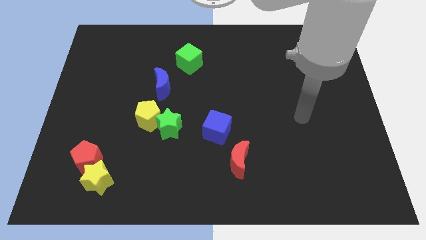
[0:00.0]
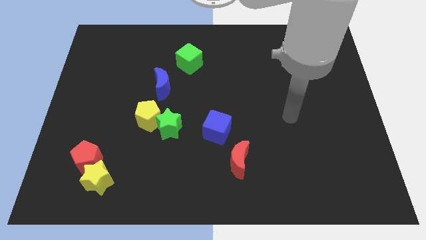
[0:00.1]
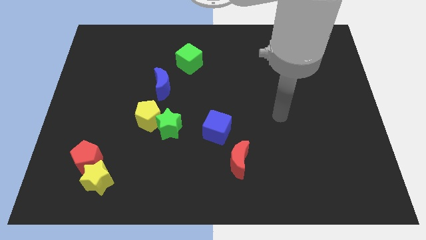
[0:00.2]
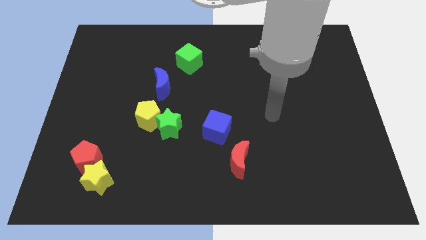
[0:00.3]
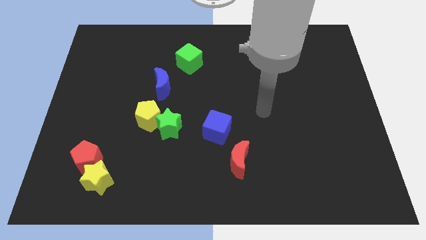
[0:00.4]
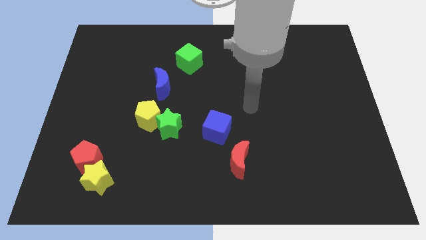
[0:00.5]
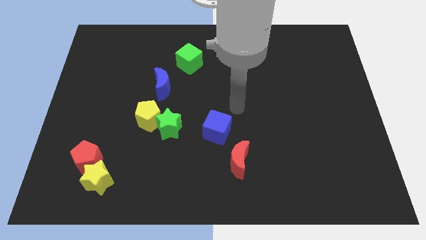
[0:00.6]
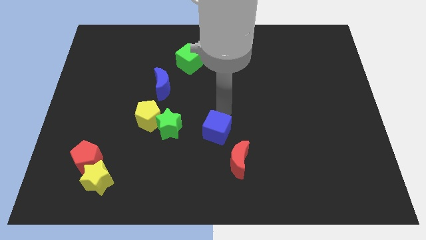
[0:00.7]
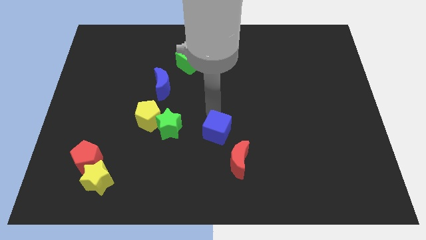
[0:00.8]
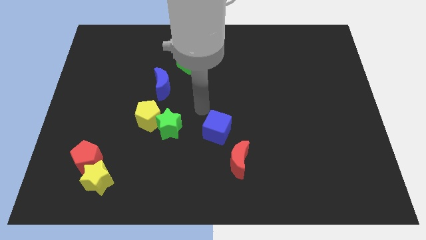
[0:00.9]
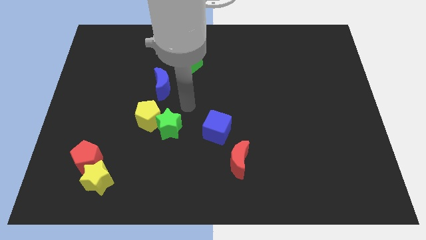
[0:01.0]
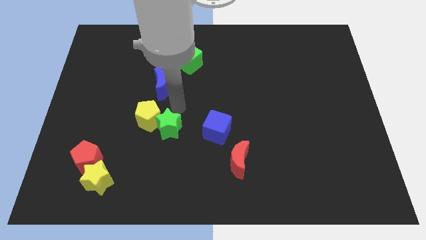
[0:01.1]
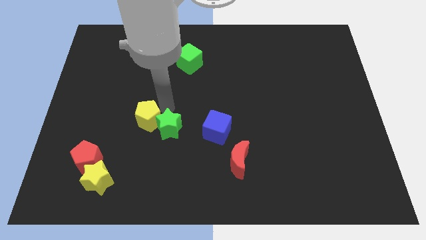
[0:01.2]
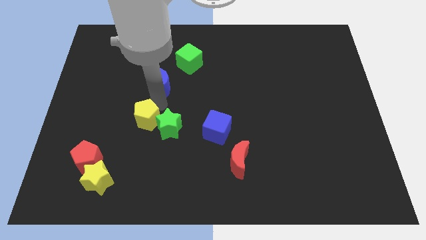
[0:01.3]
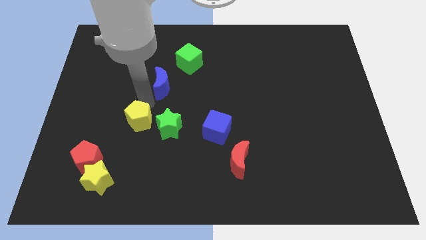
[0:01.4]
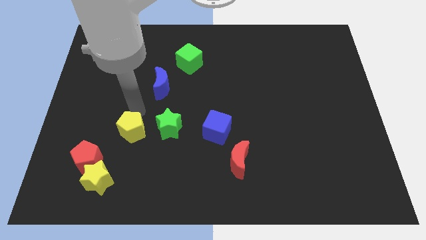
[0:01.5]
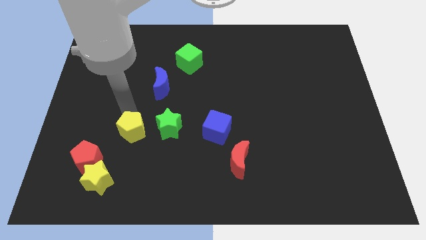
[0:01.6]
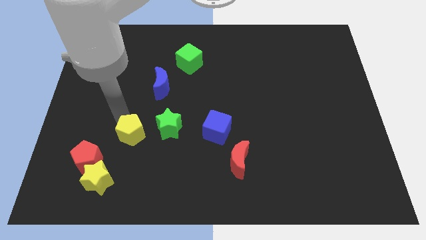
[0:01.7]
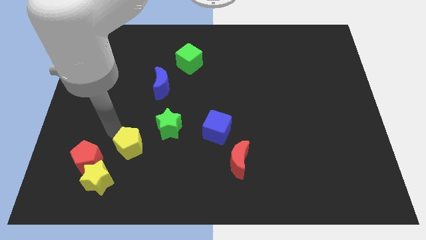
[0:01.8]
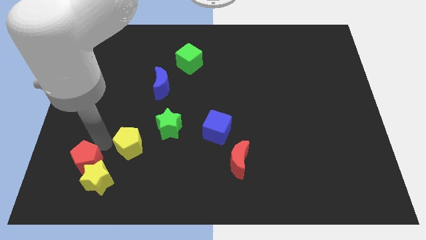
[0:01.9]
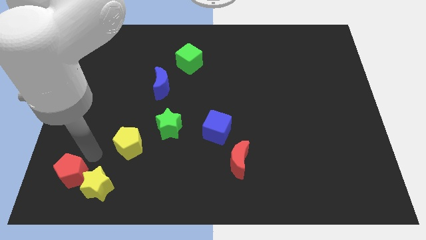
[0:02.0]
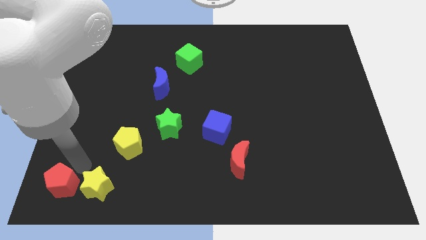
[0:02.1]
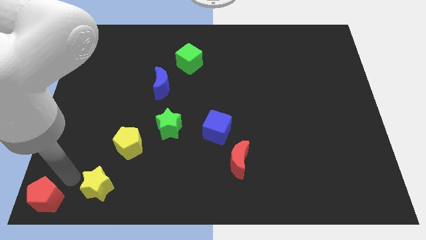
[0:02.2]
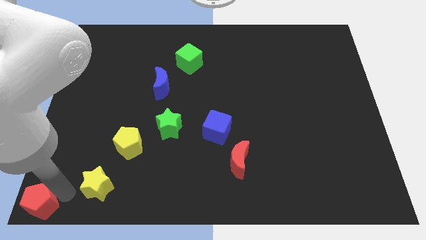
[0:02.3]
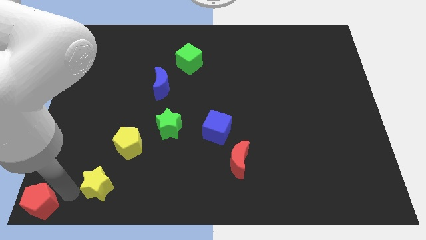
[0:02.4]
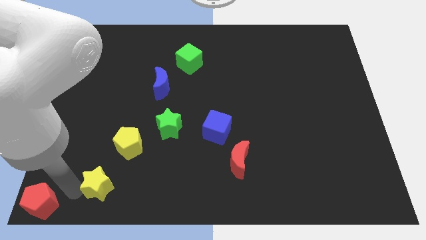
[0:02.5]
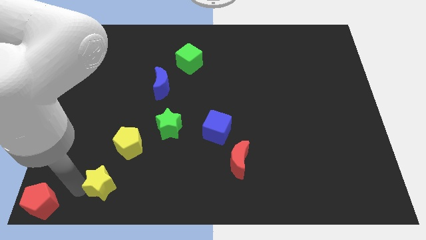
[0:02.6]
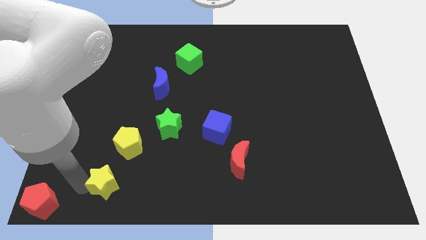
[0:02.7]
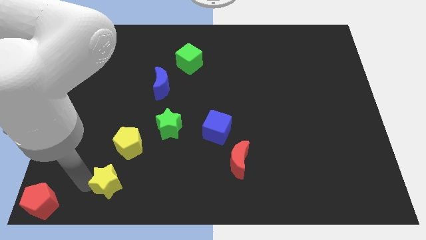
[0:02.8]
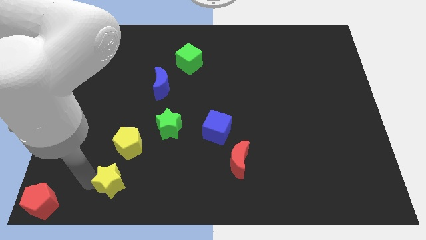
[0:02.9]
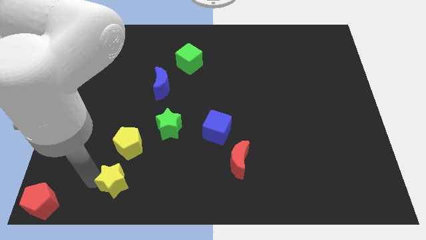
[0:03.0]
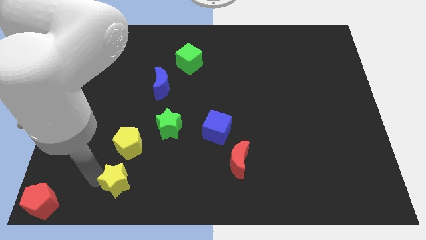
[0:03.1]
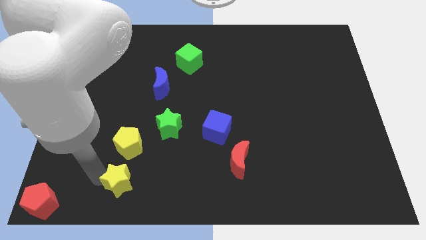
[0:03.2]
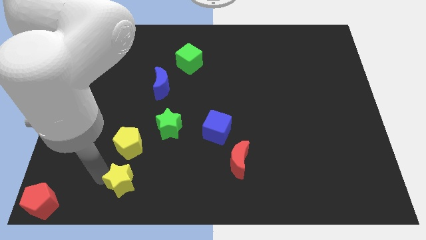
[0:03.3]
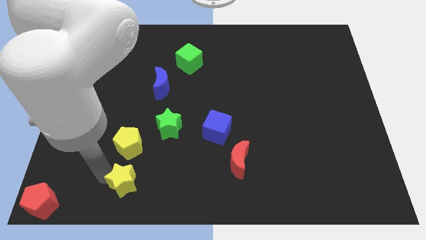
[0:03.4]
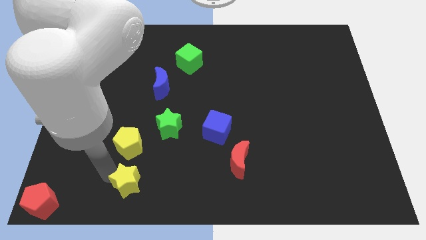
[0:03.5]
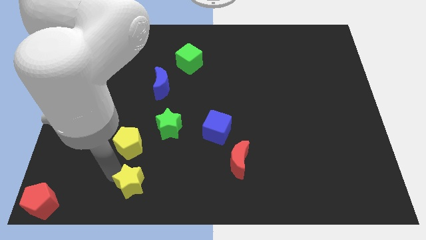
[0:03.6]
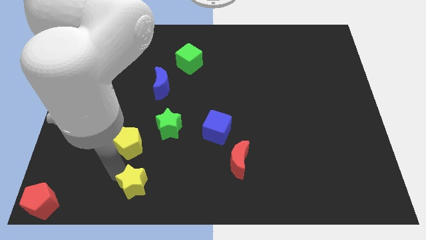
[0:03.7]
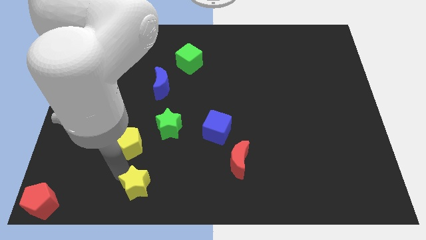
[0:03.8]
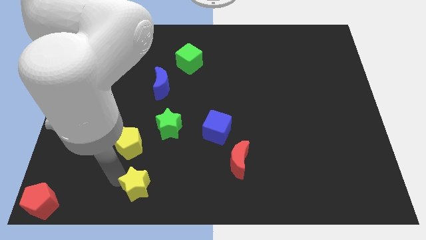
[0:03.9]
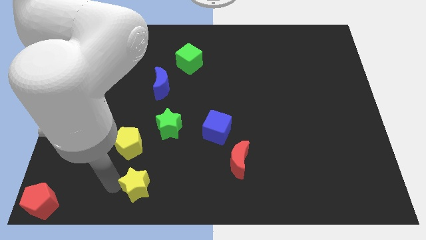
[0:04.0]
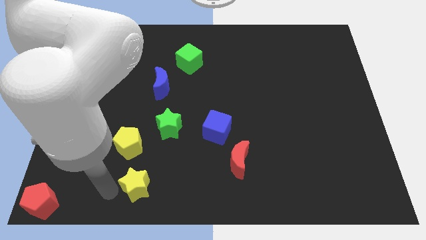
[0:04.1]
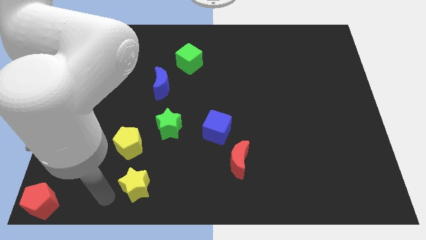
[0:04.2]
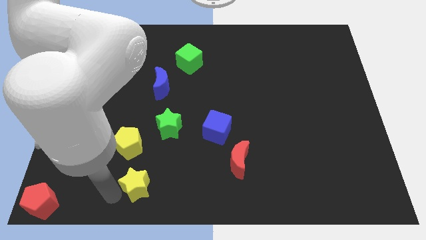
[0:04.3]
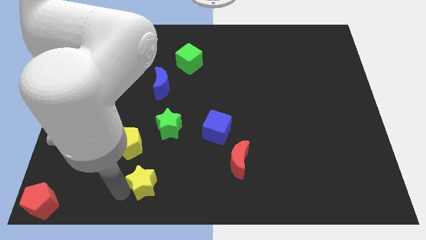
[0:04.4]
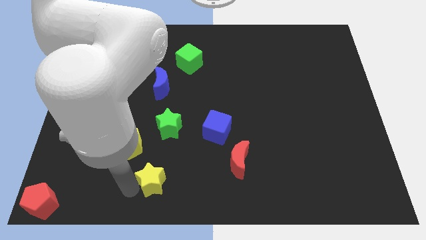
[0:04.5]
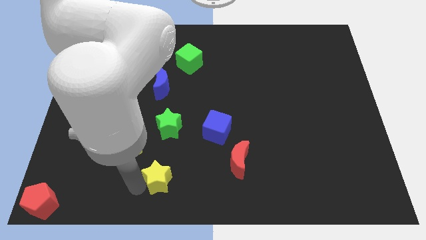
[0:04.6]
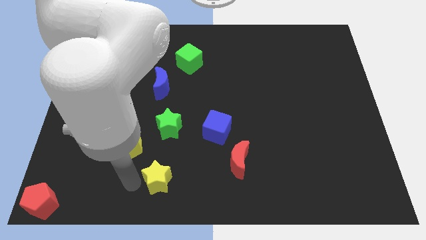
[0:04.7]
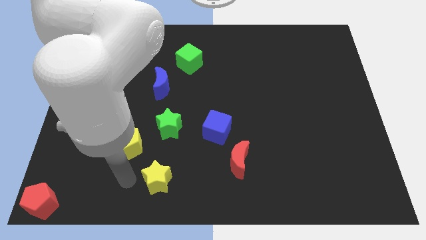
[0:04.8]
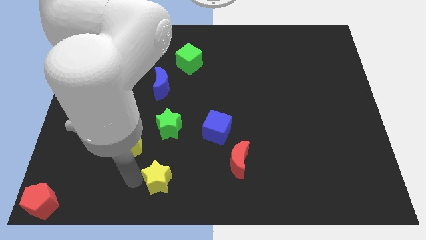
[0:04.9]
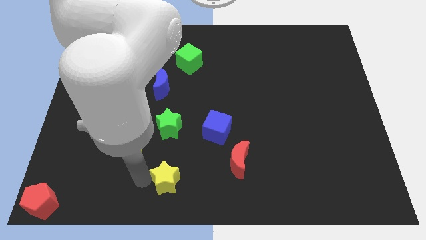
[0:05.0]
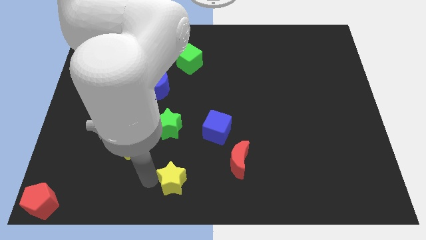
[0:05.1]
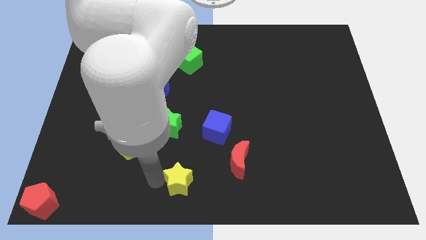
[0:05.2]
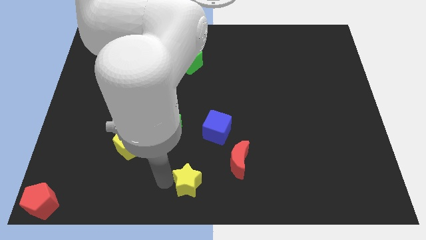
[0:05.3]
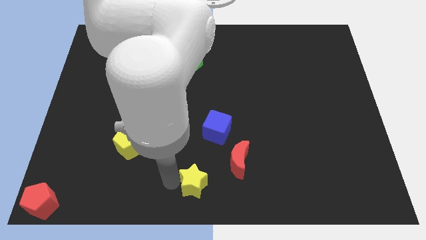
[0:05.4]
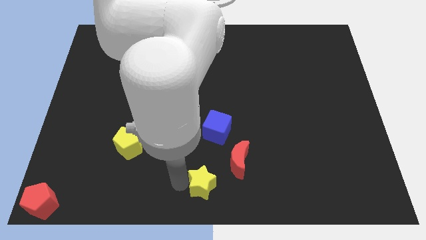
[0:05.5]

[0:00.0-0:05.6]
push the yellow star right

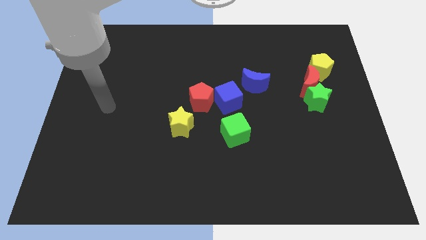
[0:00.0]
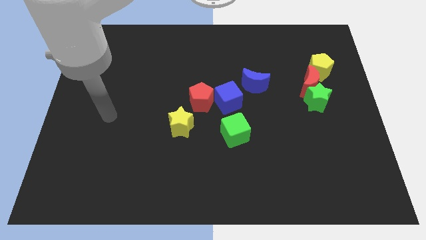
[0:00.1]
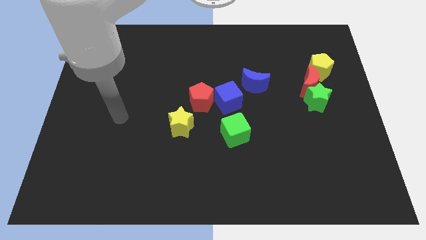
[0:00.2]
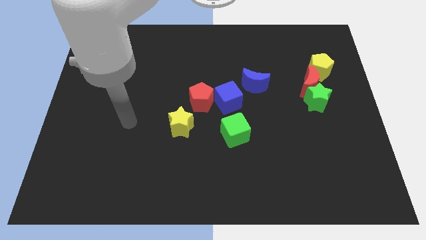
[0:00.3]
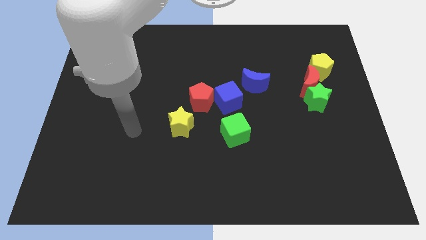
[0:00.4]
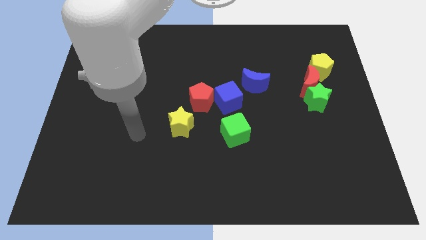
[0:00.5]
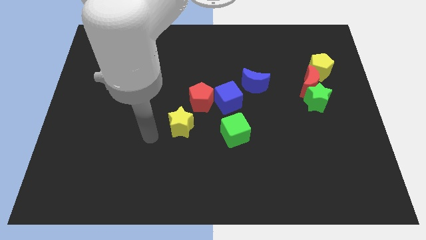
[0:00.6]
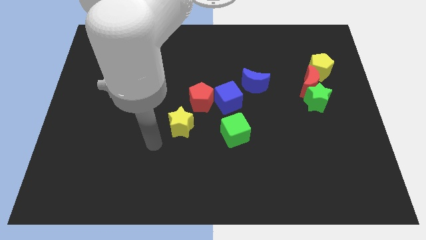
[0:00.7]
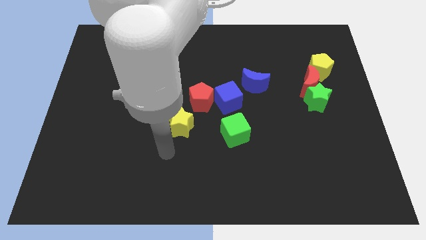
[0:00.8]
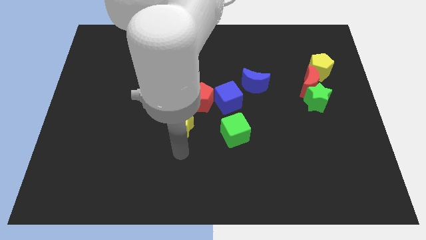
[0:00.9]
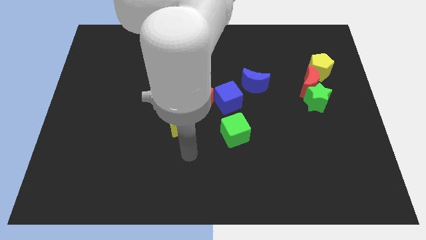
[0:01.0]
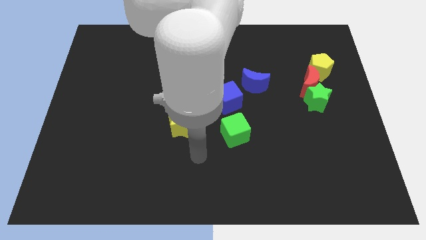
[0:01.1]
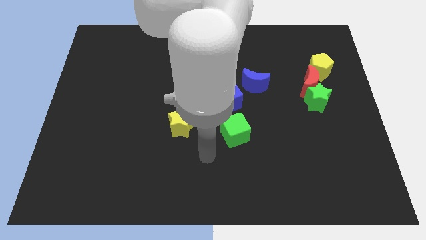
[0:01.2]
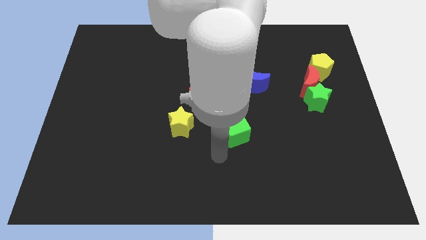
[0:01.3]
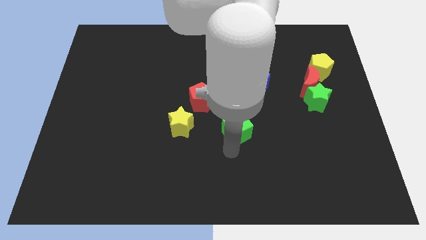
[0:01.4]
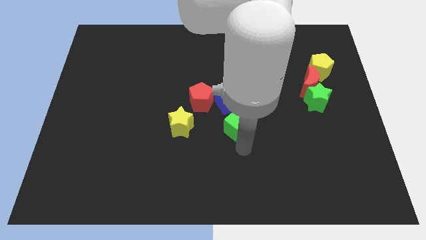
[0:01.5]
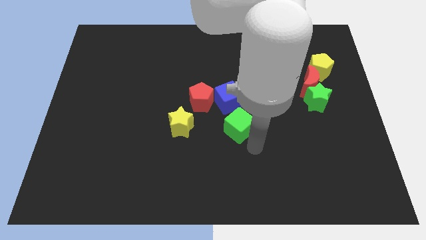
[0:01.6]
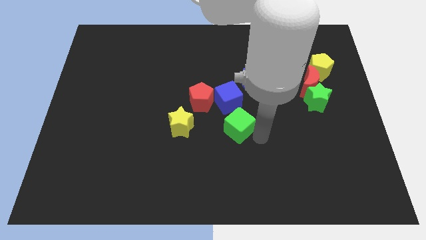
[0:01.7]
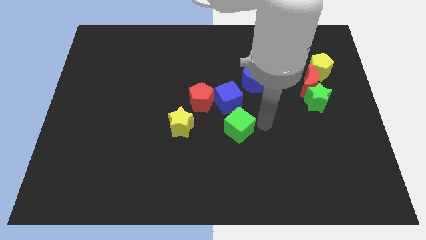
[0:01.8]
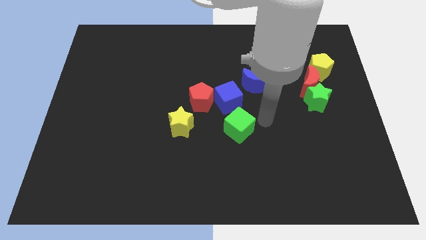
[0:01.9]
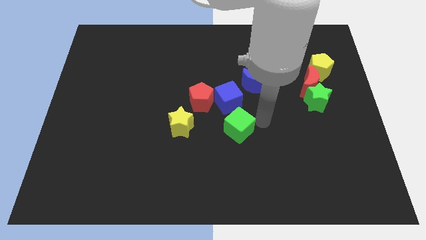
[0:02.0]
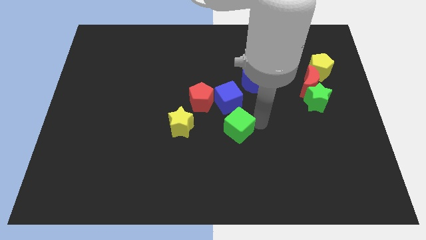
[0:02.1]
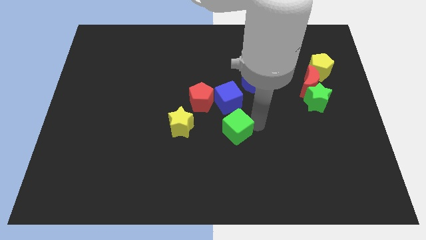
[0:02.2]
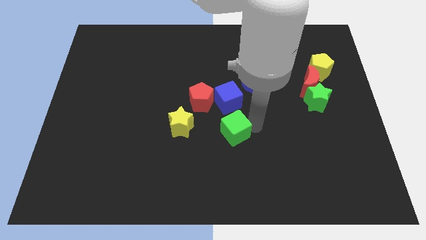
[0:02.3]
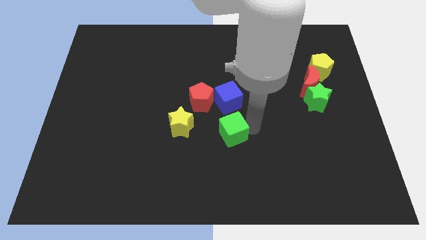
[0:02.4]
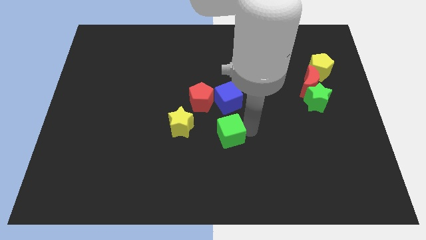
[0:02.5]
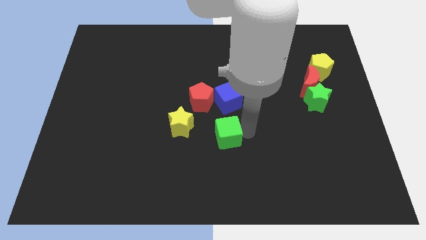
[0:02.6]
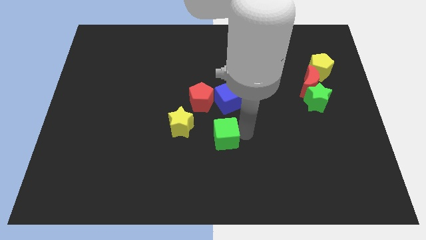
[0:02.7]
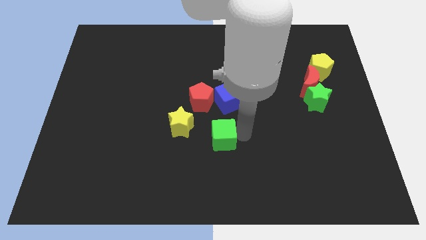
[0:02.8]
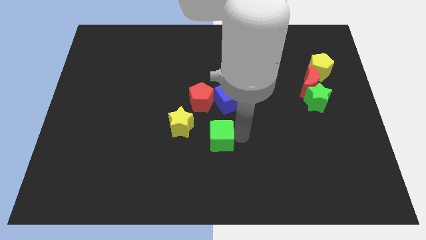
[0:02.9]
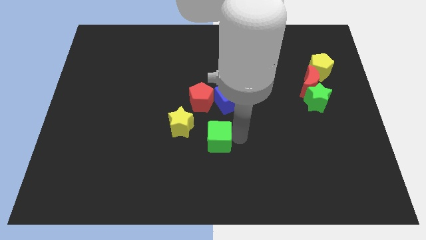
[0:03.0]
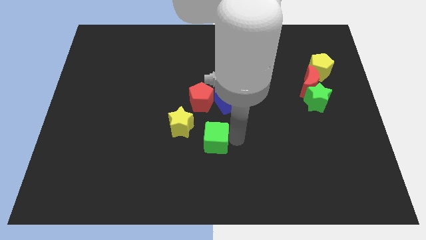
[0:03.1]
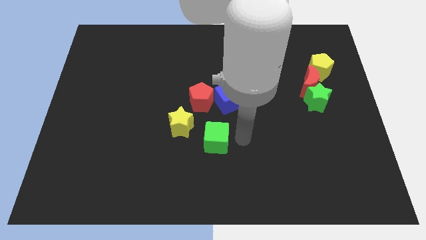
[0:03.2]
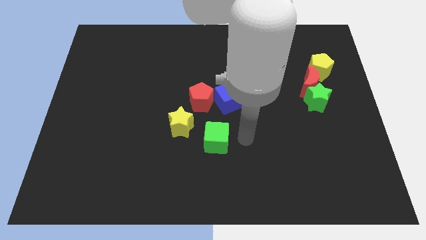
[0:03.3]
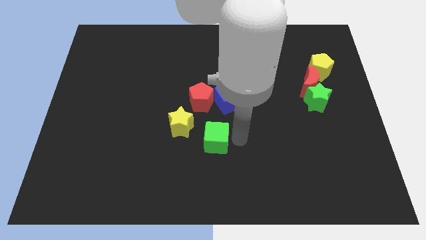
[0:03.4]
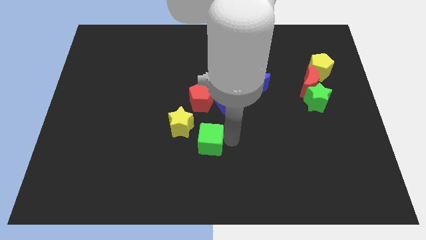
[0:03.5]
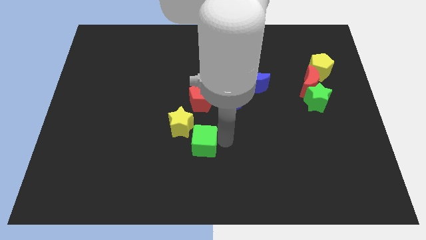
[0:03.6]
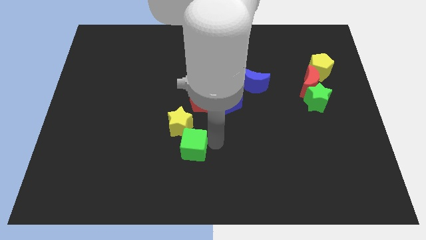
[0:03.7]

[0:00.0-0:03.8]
slightly move the green cube to the left
